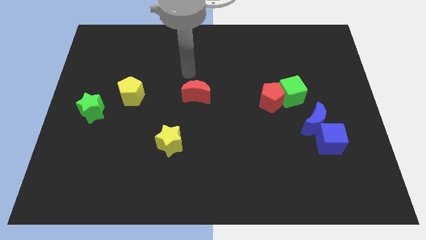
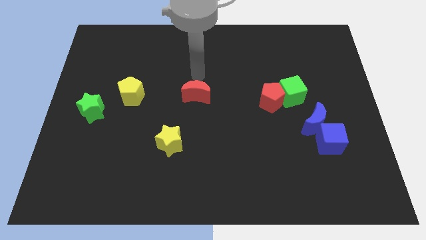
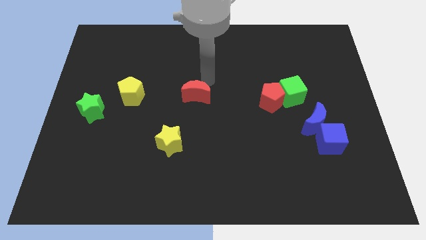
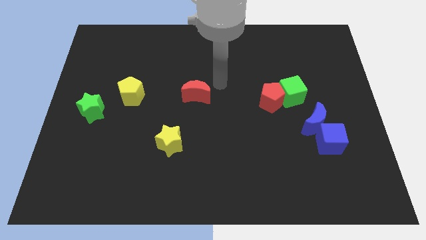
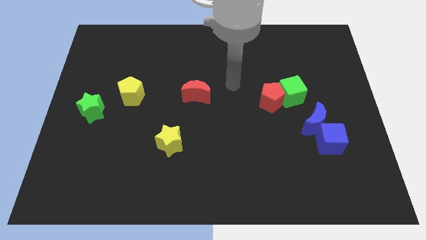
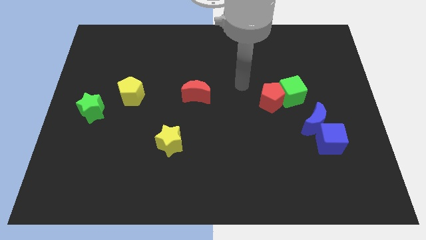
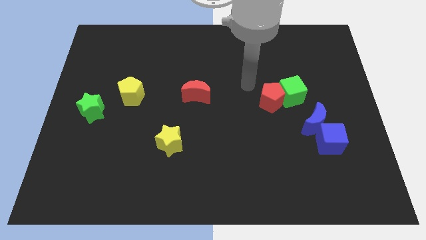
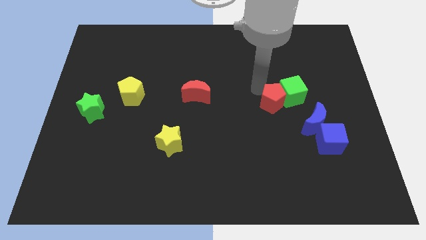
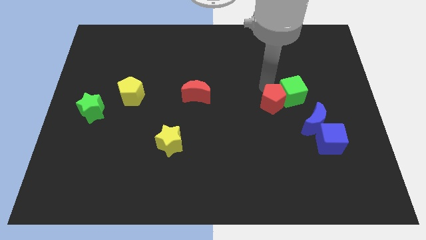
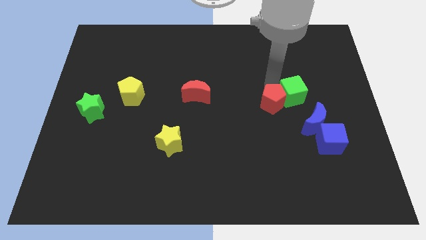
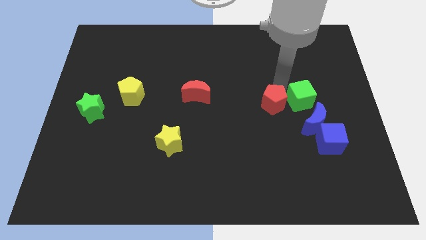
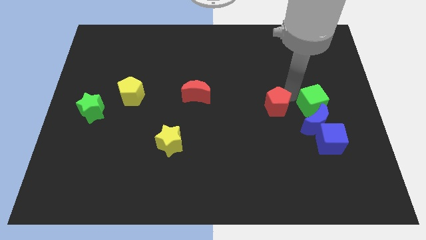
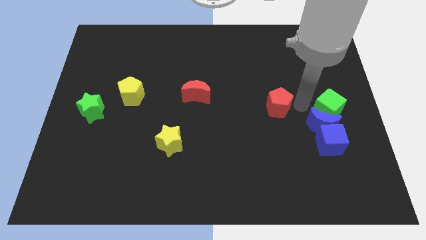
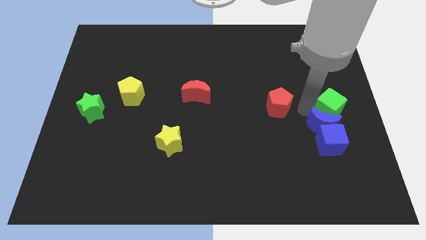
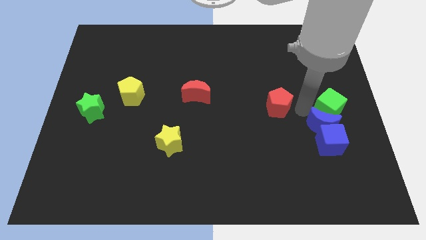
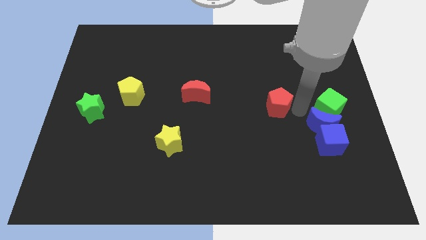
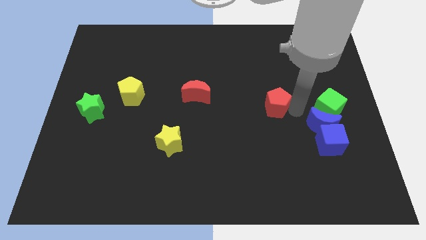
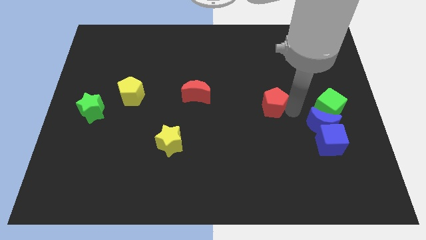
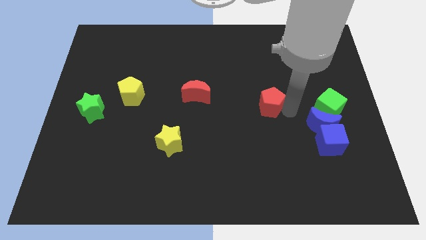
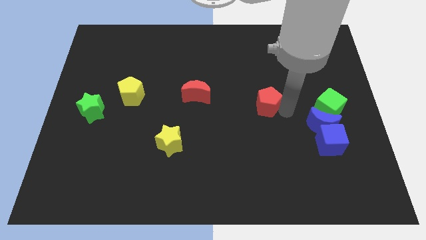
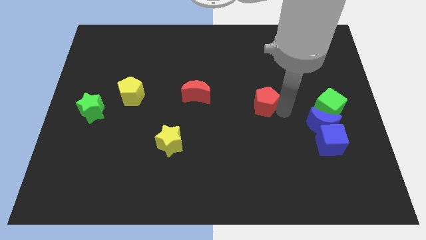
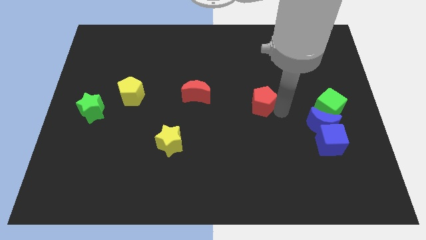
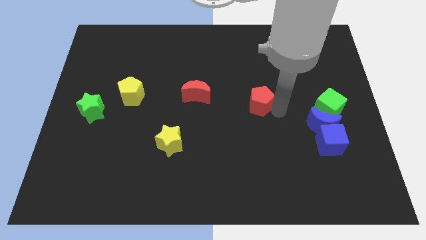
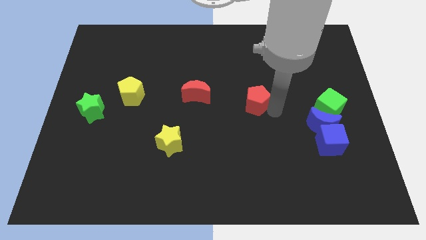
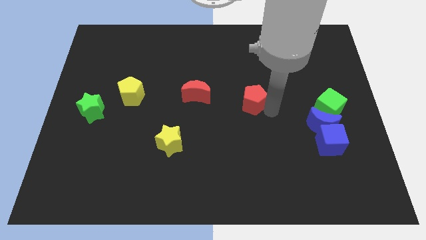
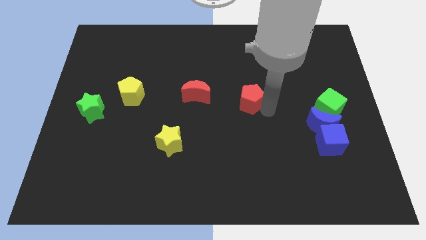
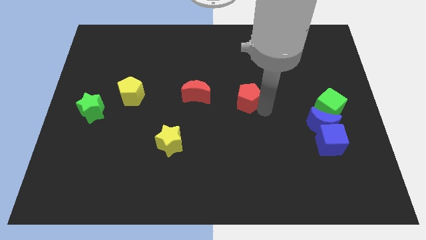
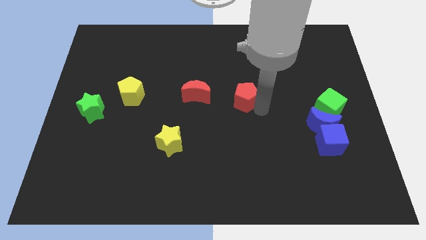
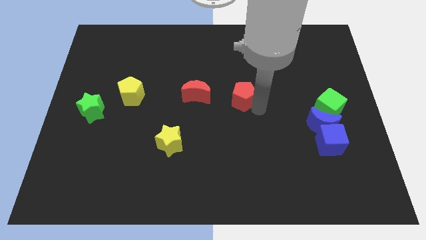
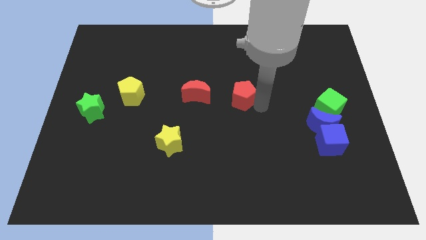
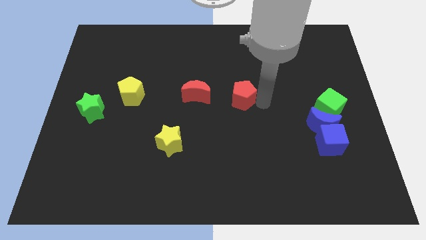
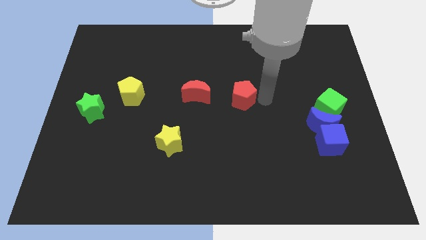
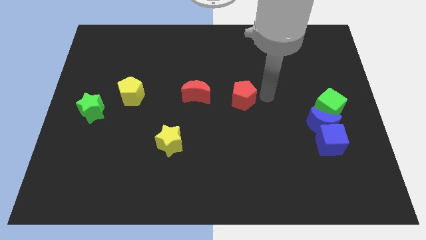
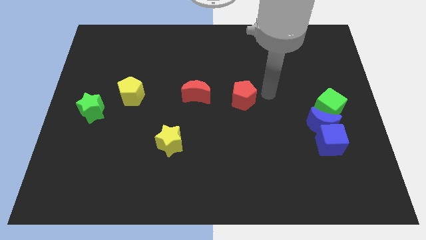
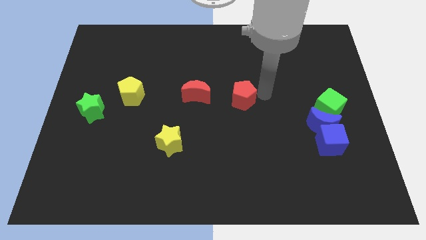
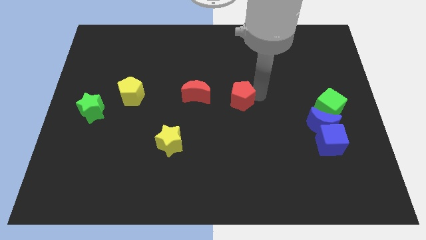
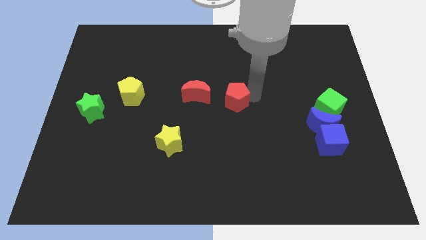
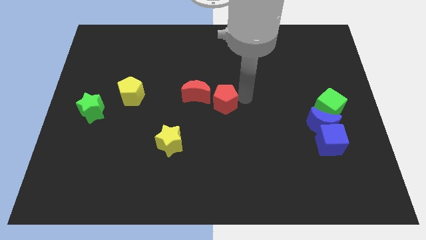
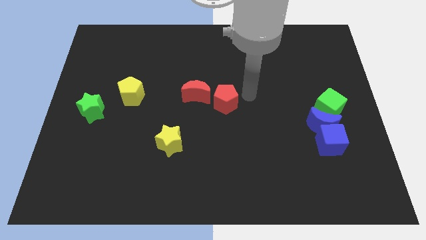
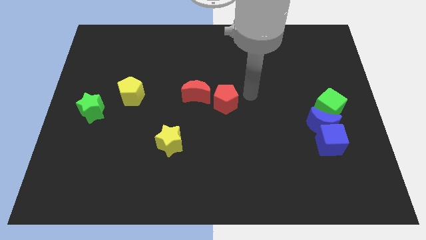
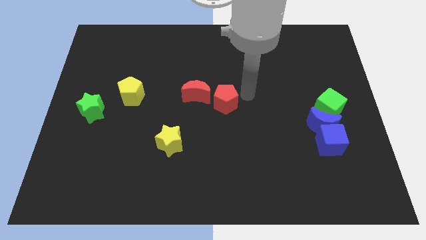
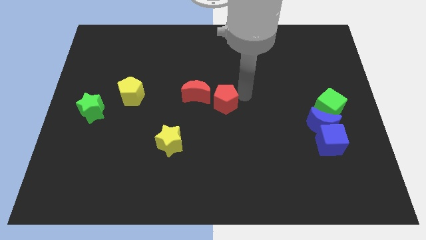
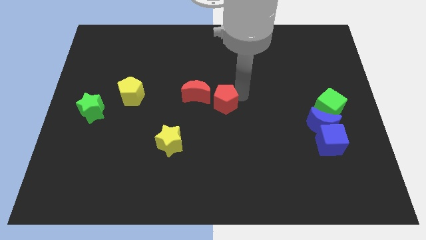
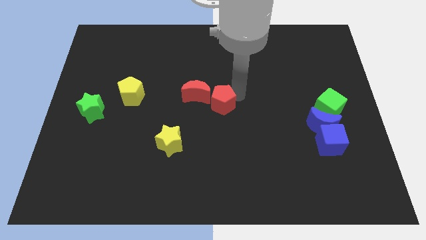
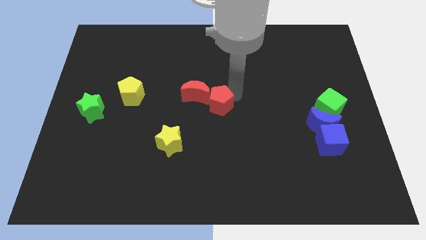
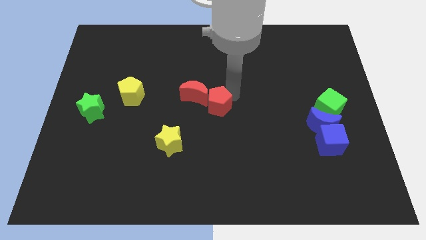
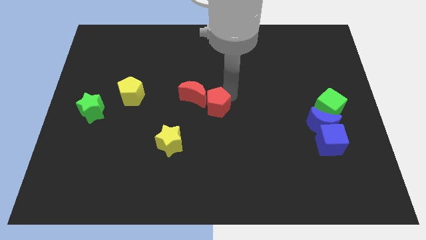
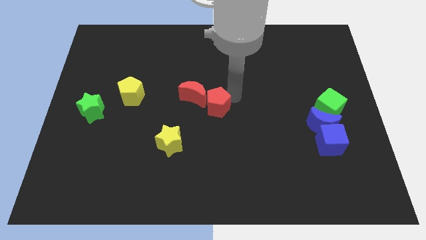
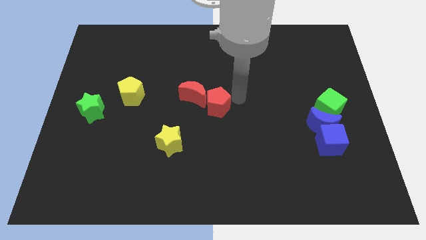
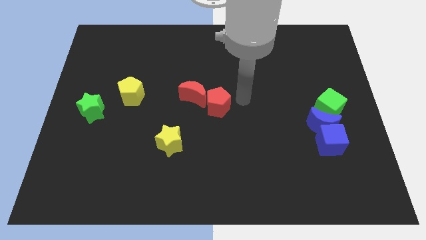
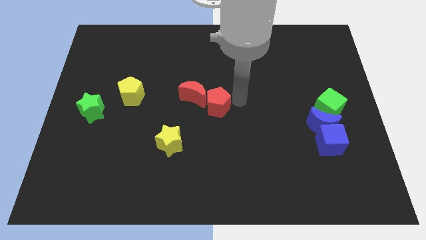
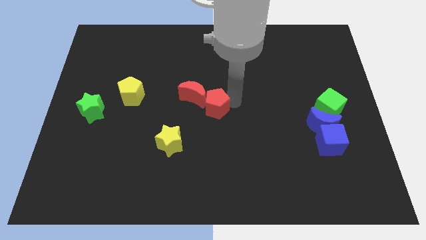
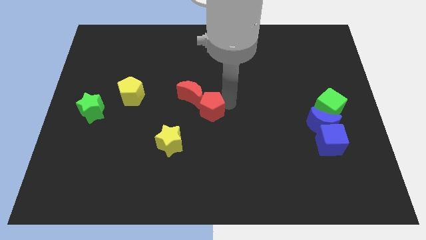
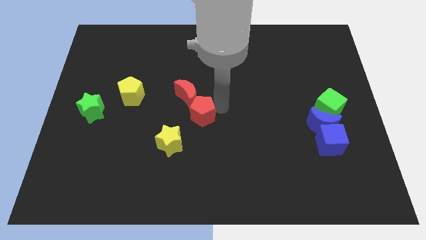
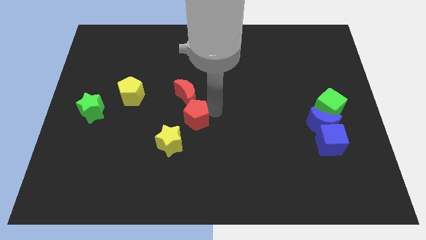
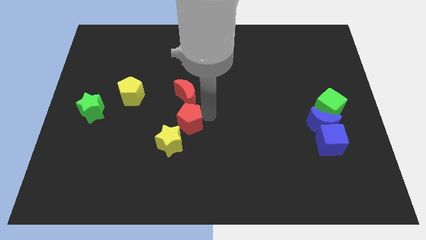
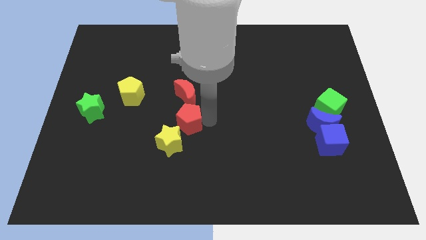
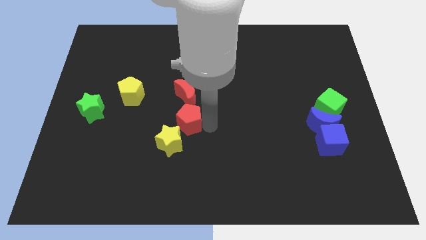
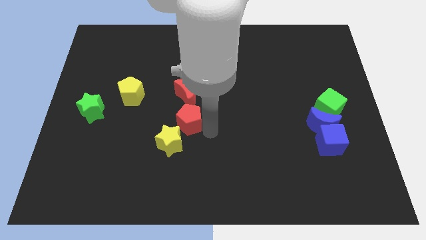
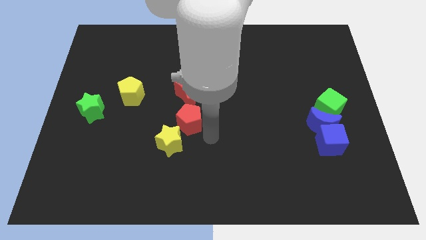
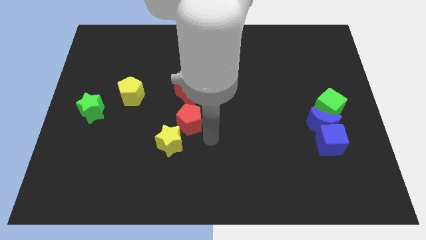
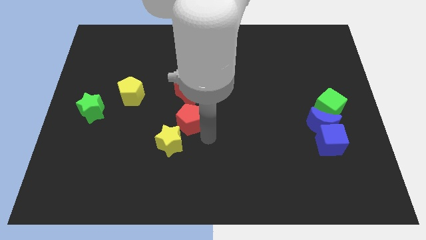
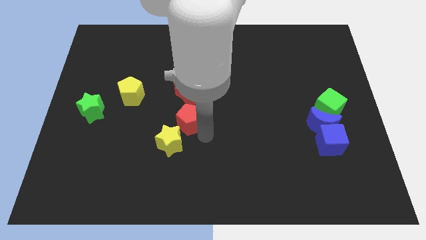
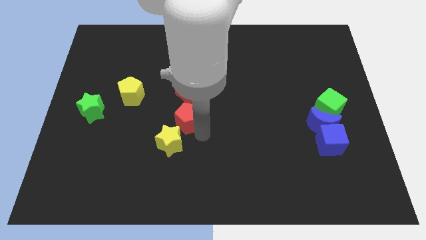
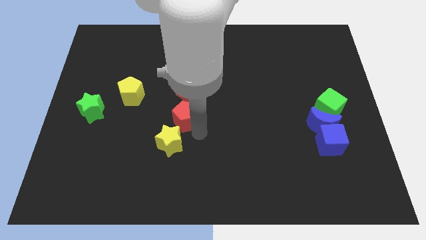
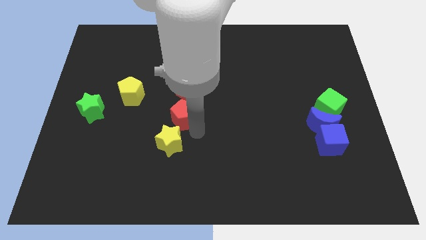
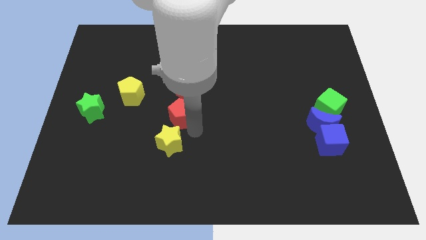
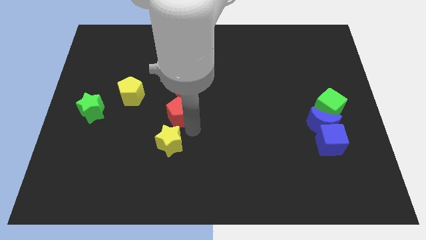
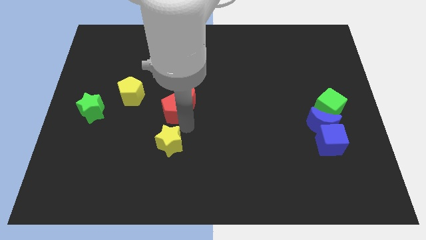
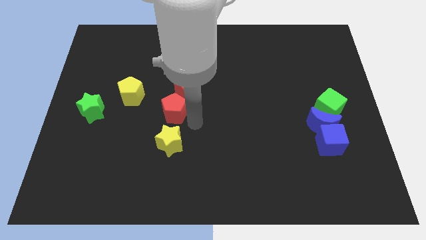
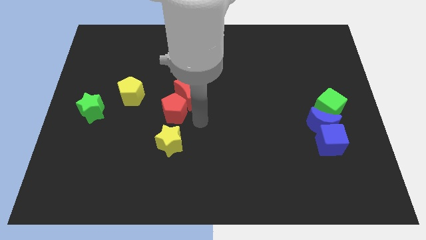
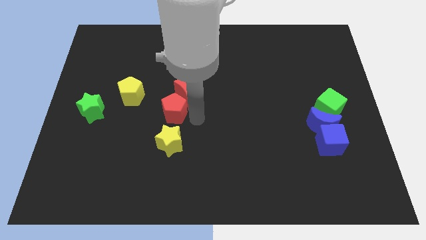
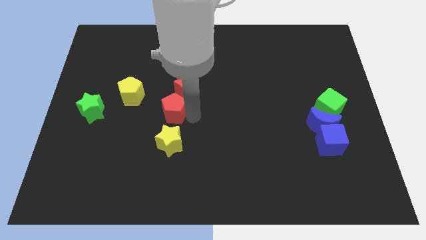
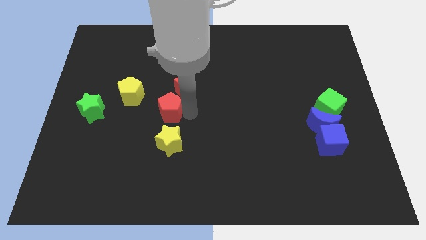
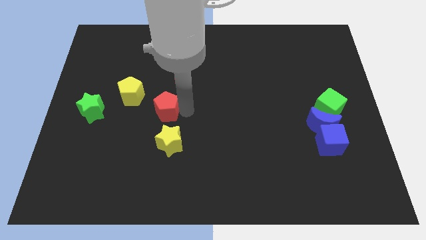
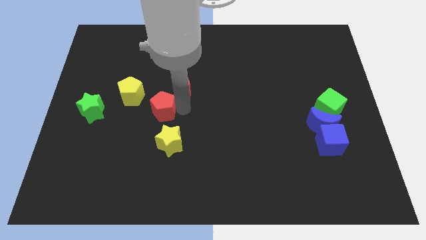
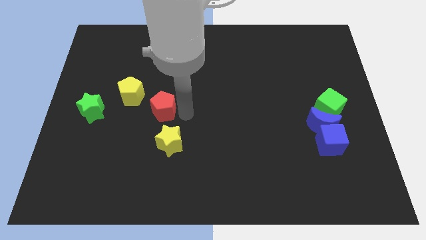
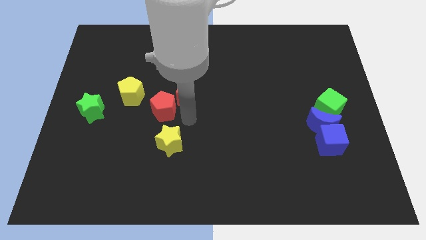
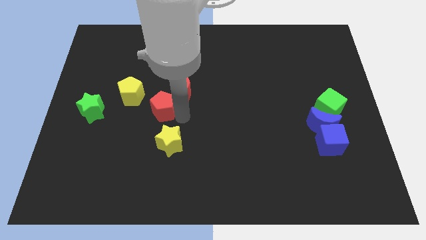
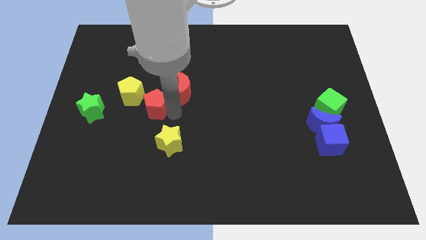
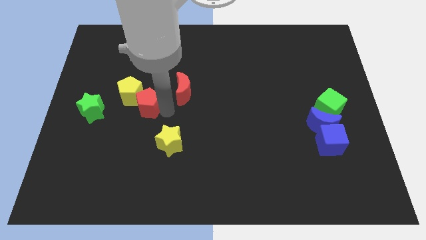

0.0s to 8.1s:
push the red pentagon close to the yellow pentagon
